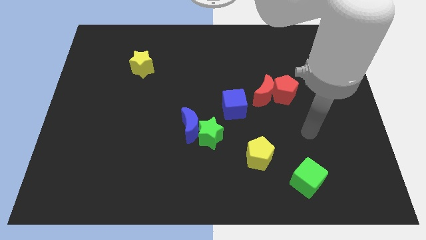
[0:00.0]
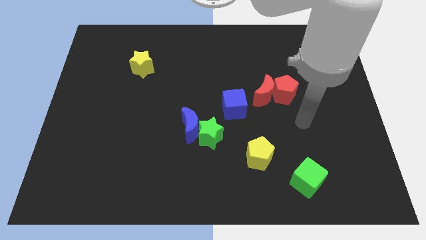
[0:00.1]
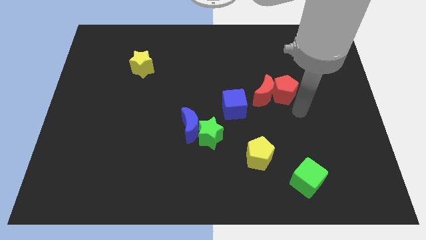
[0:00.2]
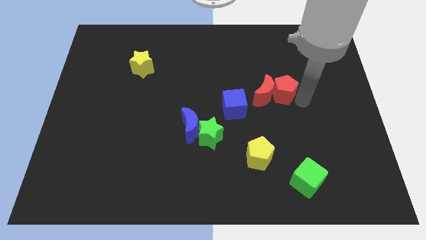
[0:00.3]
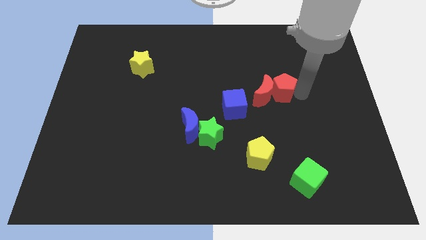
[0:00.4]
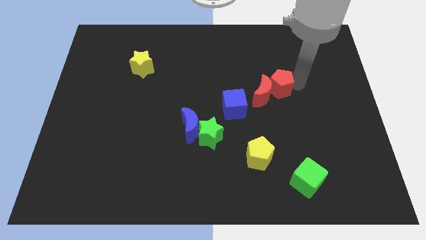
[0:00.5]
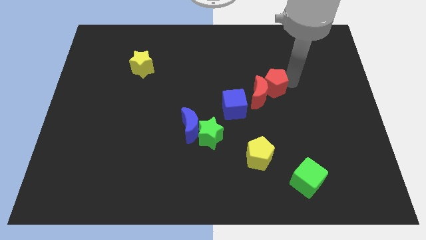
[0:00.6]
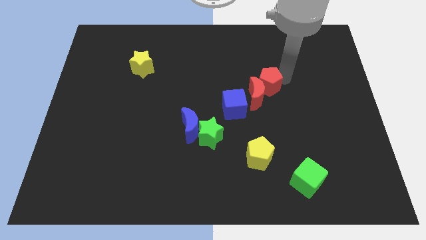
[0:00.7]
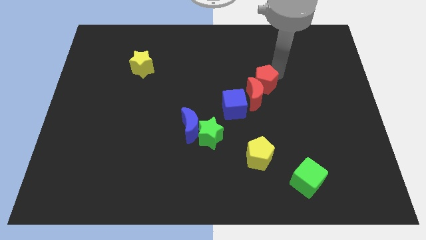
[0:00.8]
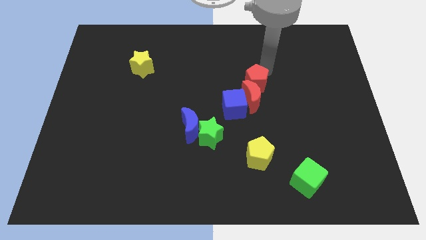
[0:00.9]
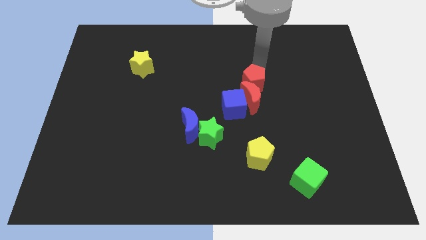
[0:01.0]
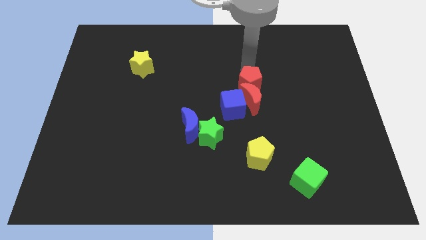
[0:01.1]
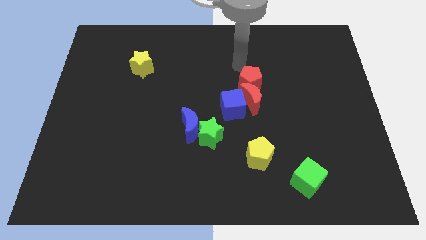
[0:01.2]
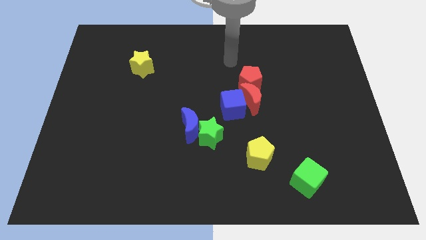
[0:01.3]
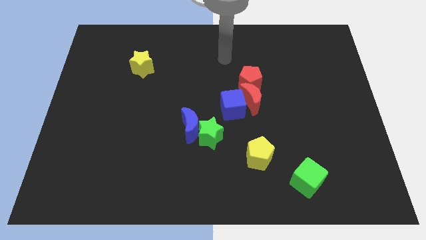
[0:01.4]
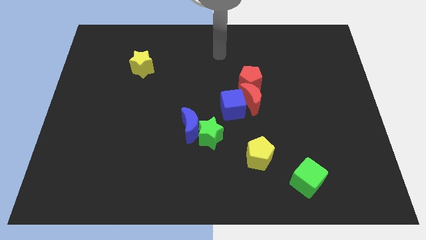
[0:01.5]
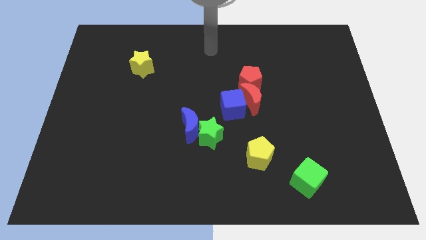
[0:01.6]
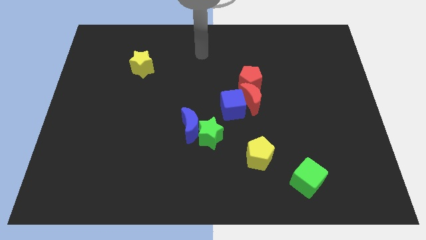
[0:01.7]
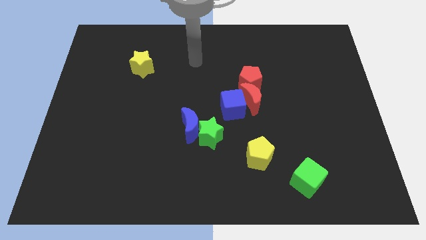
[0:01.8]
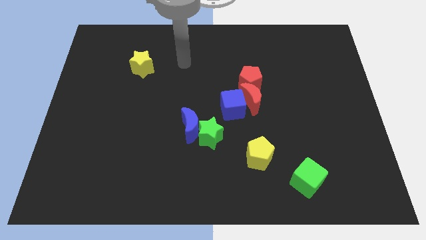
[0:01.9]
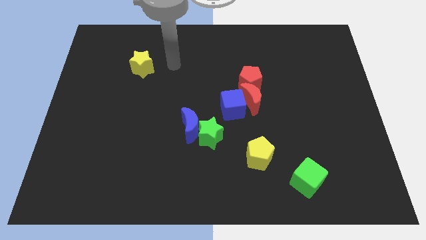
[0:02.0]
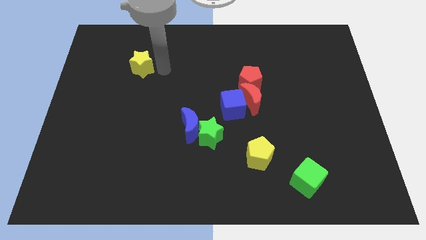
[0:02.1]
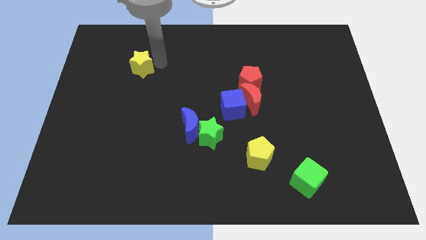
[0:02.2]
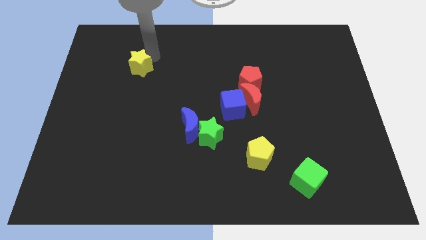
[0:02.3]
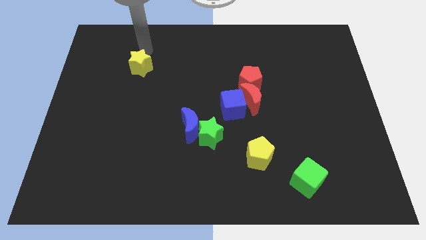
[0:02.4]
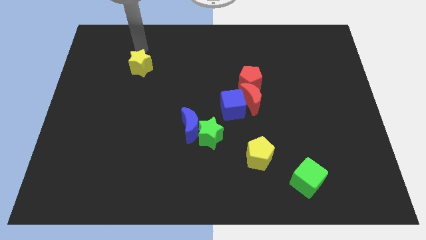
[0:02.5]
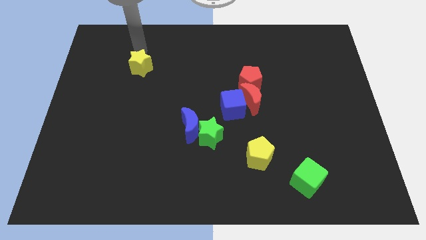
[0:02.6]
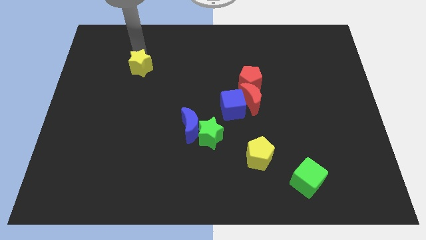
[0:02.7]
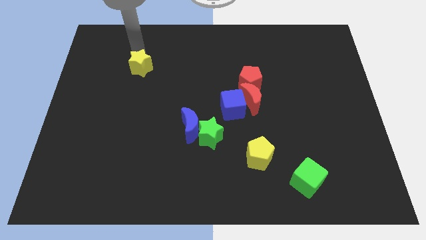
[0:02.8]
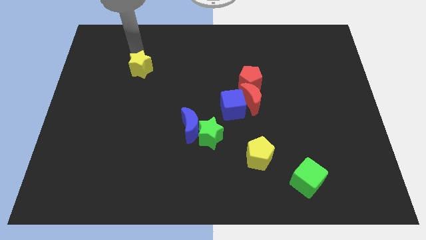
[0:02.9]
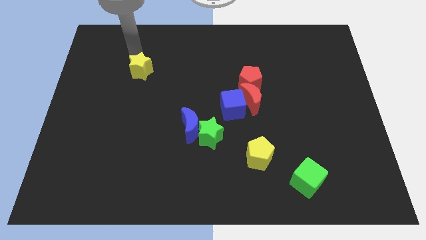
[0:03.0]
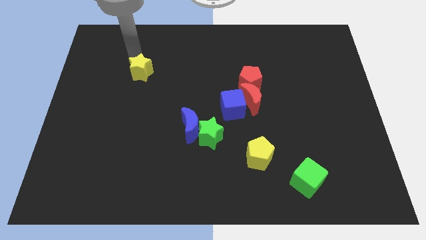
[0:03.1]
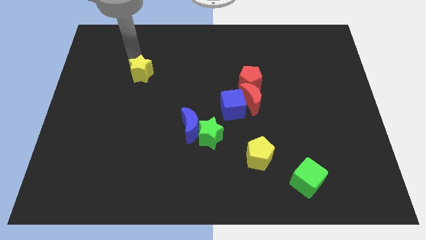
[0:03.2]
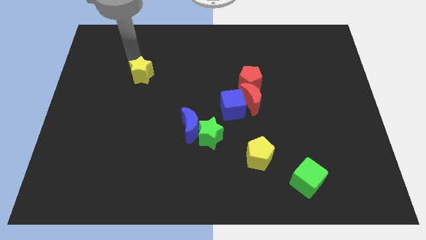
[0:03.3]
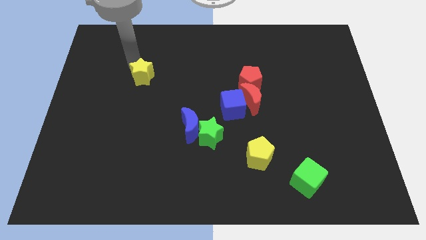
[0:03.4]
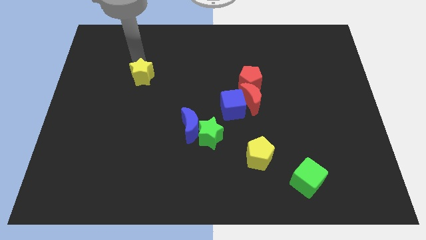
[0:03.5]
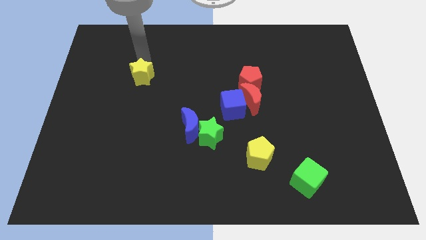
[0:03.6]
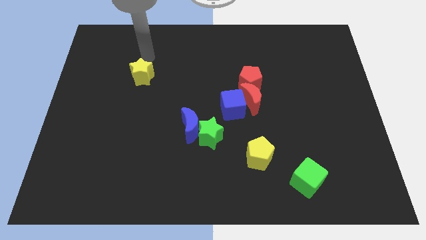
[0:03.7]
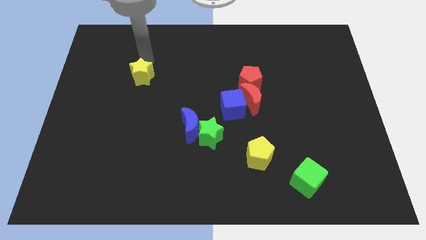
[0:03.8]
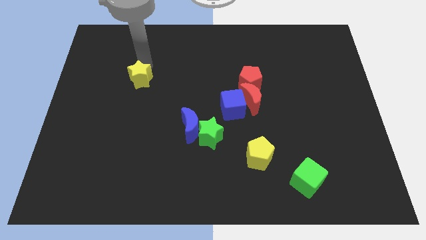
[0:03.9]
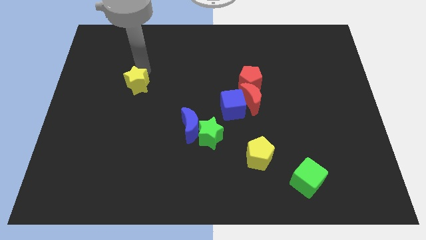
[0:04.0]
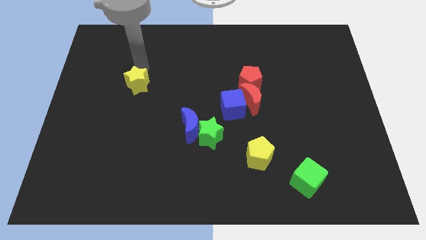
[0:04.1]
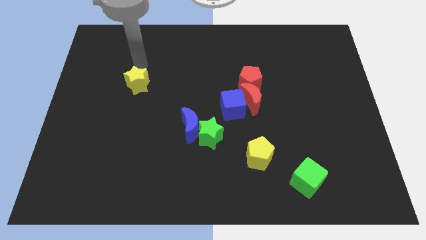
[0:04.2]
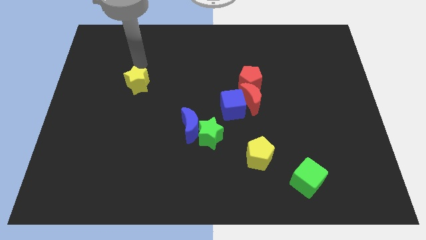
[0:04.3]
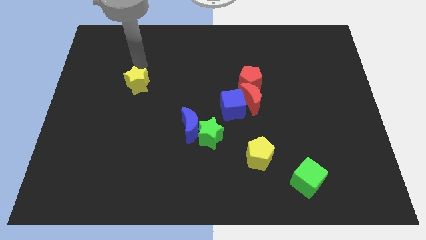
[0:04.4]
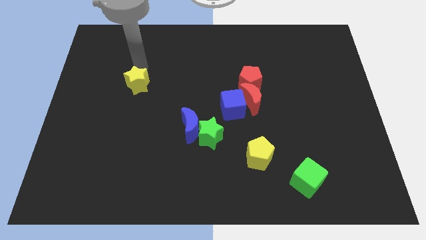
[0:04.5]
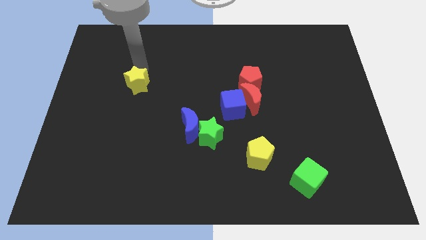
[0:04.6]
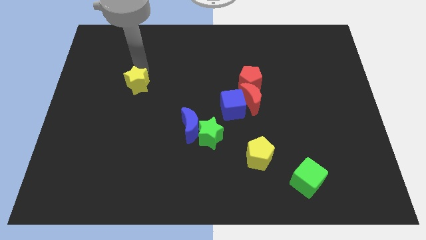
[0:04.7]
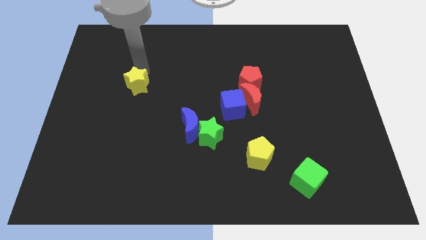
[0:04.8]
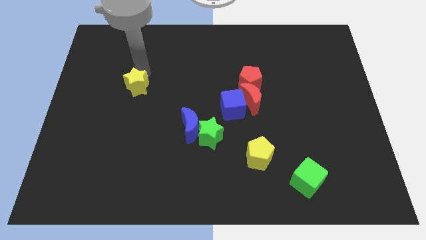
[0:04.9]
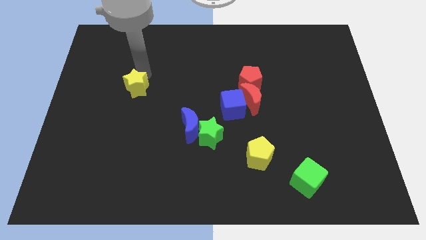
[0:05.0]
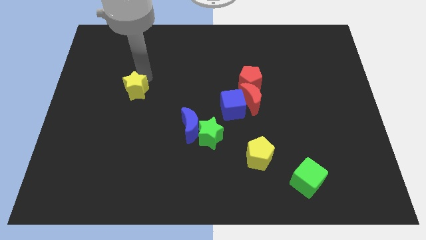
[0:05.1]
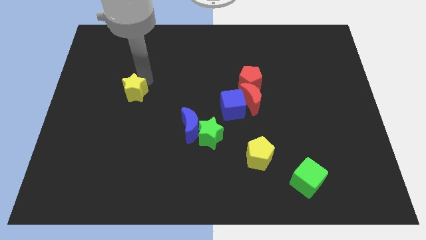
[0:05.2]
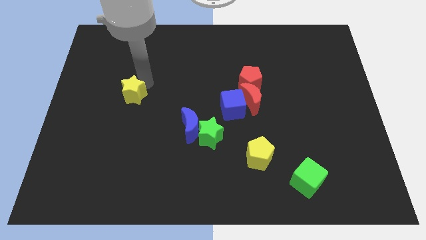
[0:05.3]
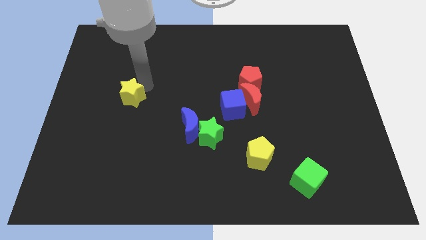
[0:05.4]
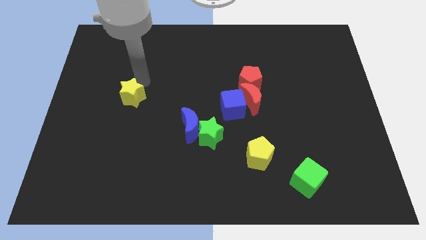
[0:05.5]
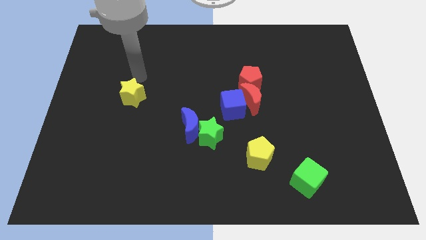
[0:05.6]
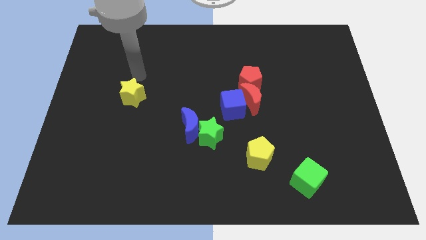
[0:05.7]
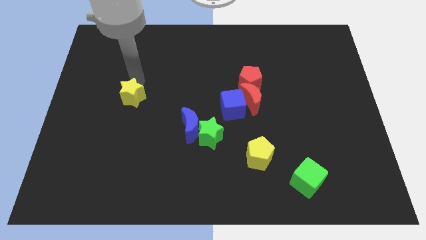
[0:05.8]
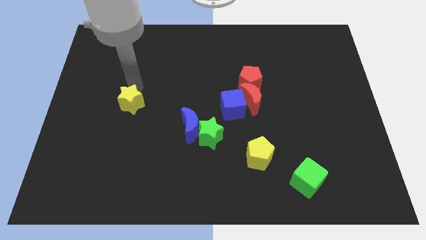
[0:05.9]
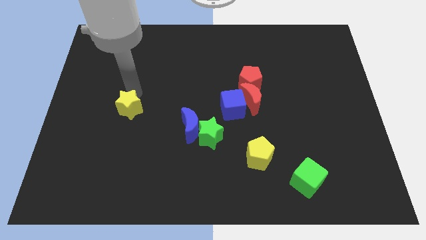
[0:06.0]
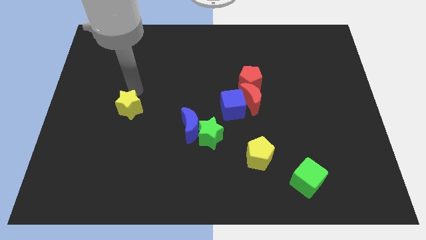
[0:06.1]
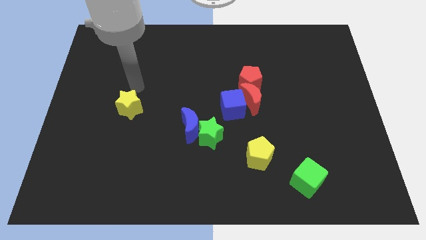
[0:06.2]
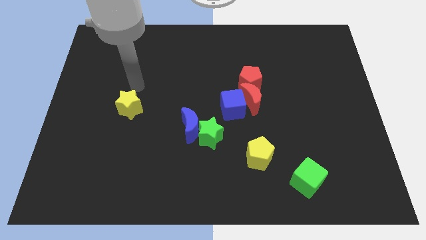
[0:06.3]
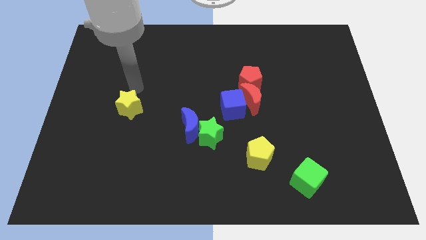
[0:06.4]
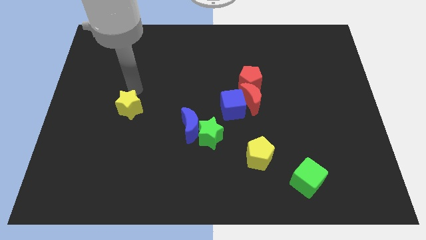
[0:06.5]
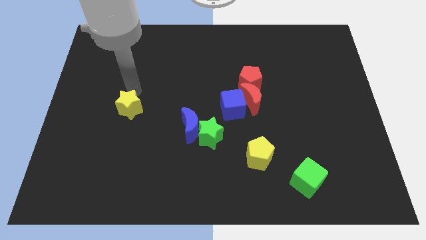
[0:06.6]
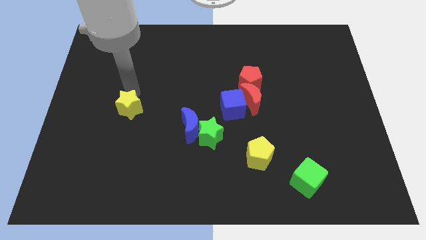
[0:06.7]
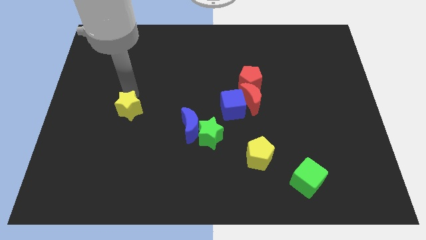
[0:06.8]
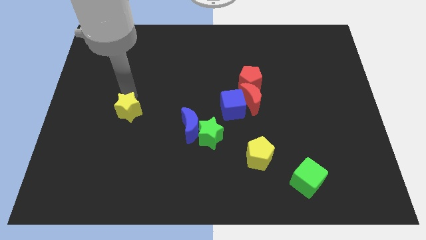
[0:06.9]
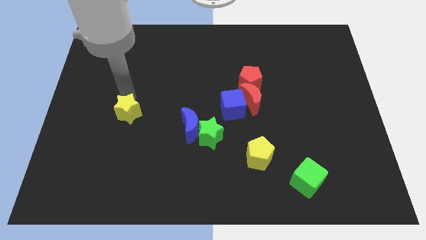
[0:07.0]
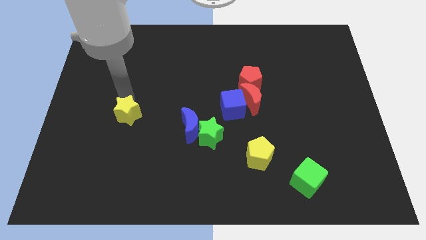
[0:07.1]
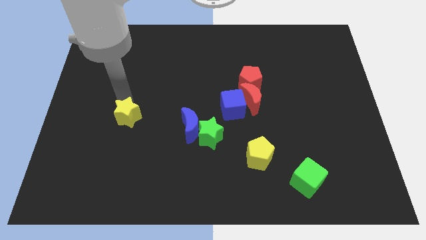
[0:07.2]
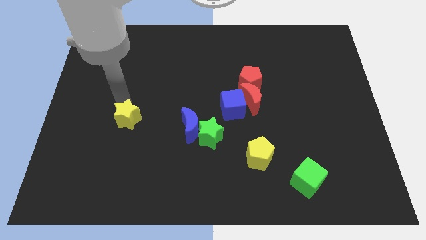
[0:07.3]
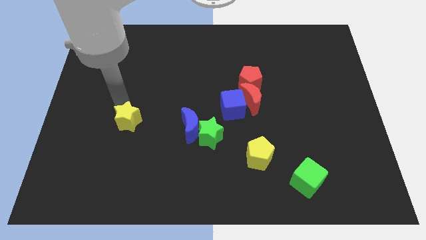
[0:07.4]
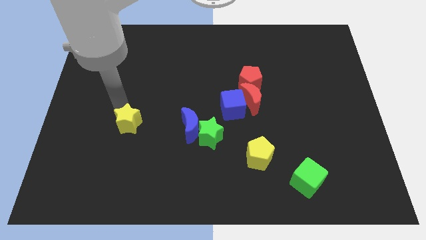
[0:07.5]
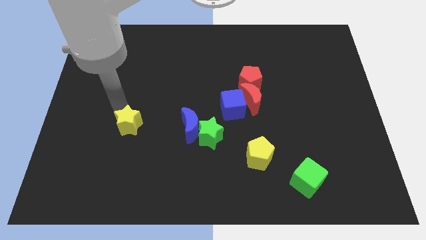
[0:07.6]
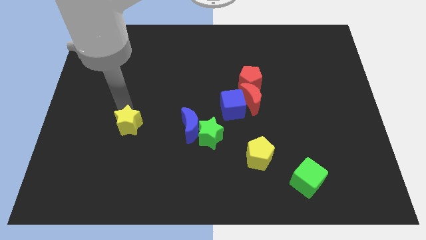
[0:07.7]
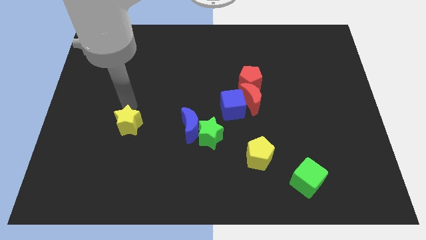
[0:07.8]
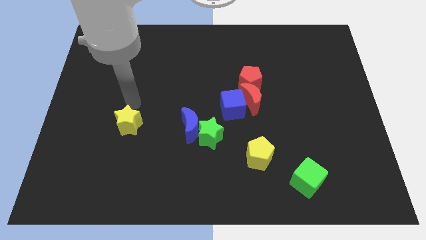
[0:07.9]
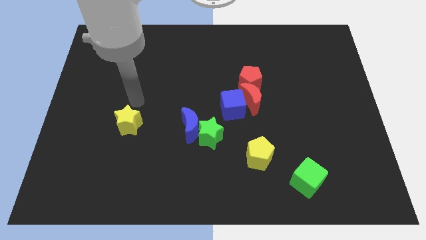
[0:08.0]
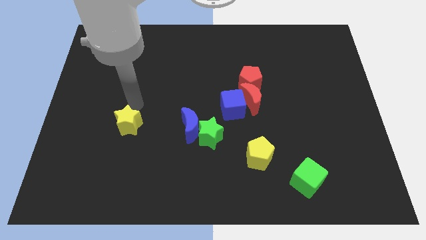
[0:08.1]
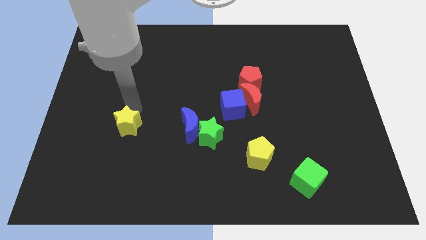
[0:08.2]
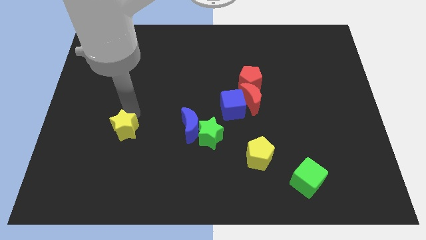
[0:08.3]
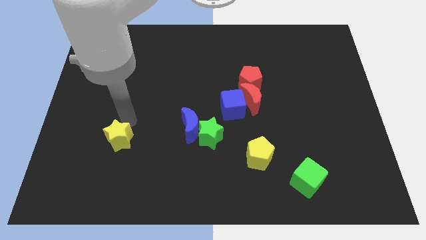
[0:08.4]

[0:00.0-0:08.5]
slide the yellow star down
